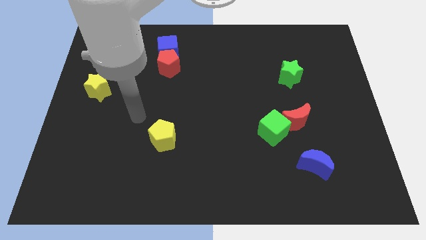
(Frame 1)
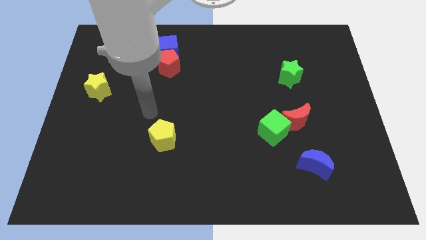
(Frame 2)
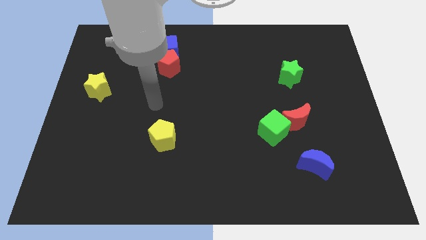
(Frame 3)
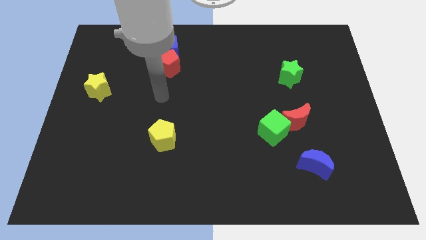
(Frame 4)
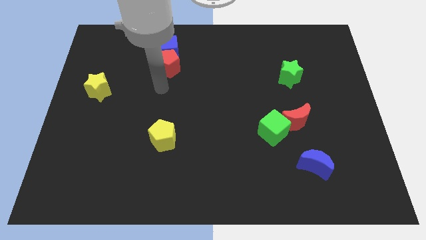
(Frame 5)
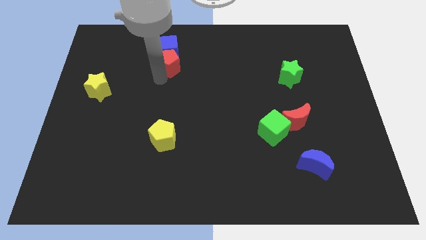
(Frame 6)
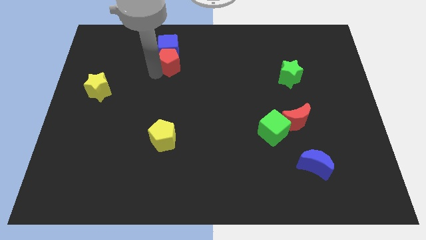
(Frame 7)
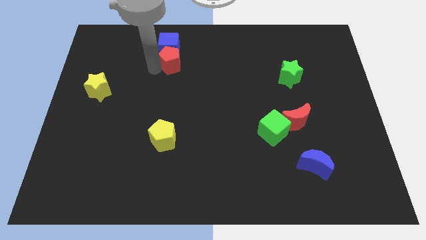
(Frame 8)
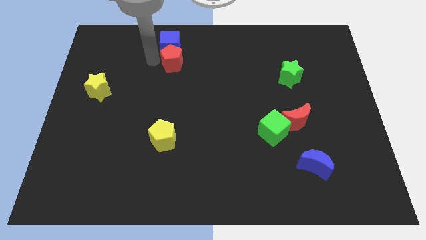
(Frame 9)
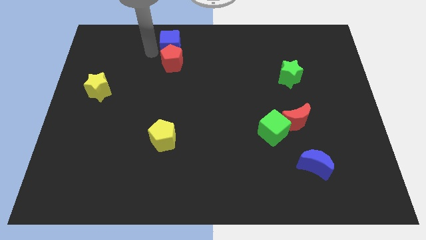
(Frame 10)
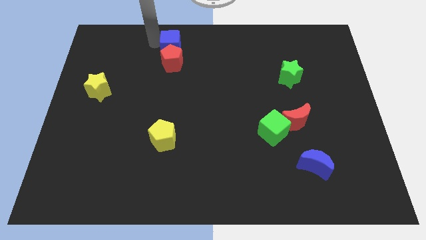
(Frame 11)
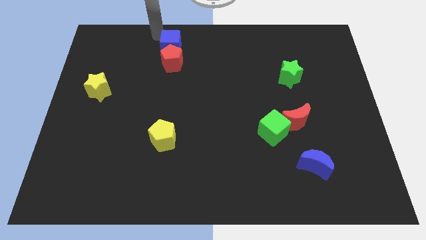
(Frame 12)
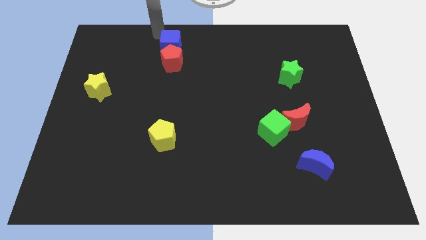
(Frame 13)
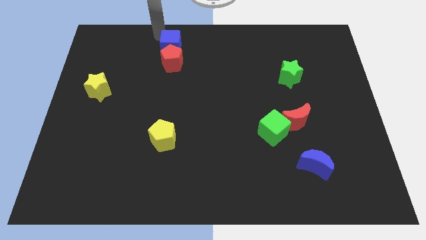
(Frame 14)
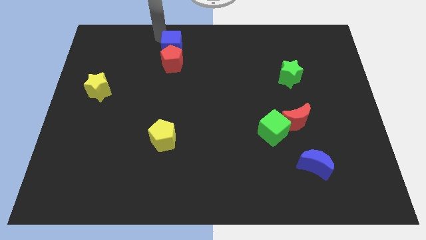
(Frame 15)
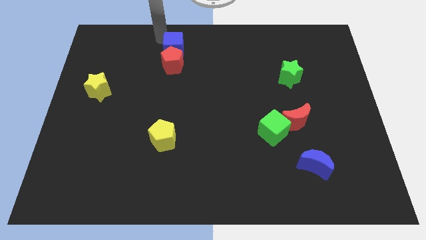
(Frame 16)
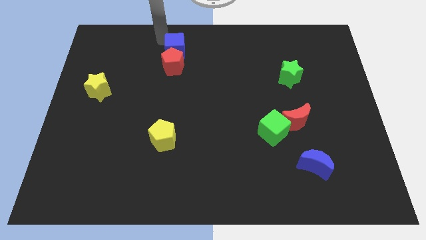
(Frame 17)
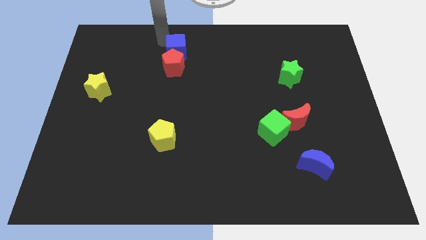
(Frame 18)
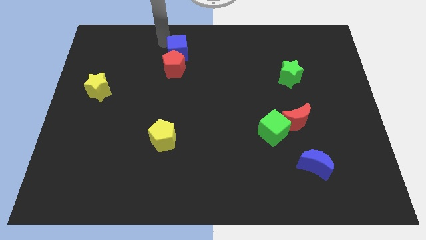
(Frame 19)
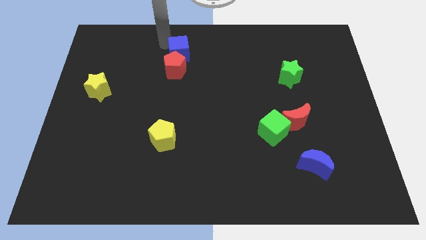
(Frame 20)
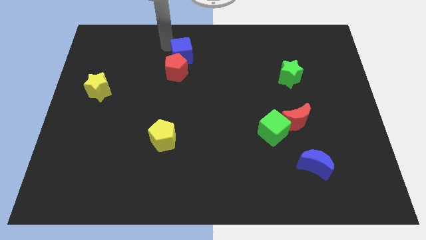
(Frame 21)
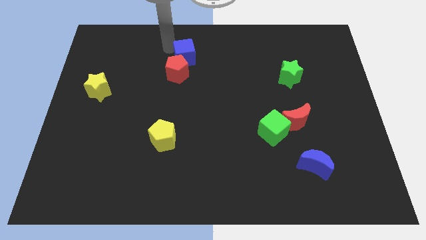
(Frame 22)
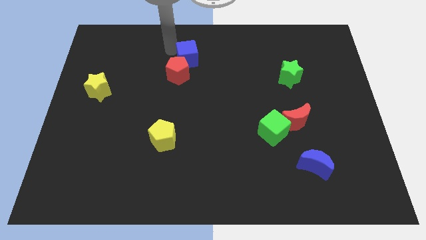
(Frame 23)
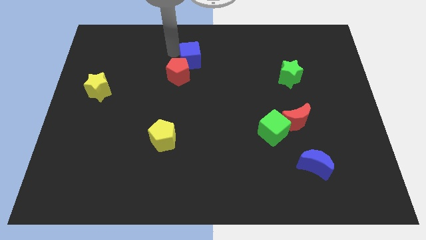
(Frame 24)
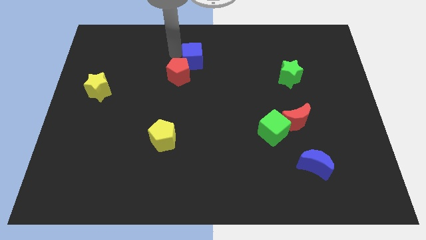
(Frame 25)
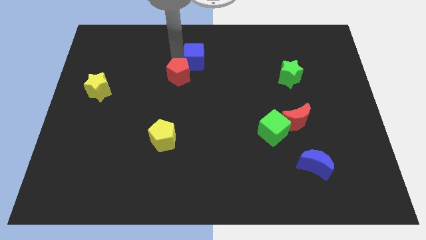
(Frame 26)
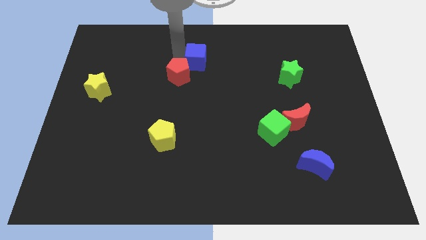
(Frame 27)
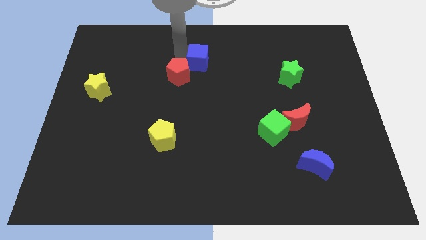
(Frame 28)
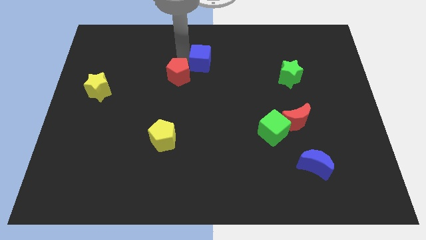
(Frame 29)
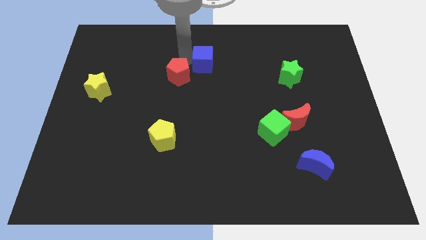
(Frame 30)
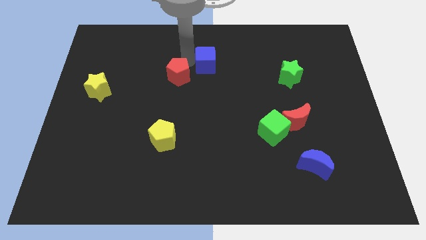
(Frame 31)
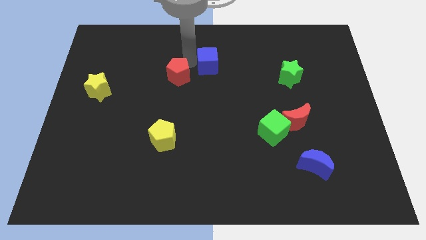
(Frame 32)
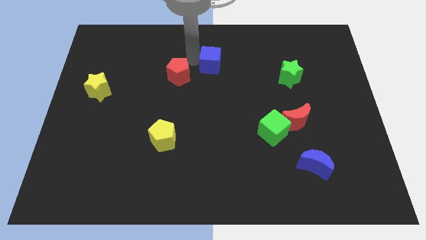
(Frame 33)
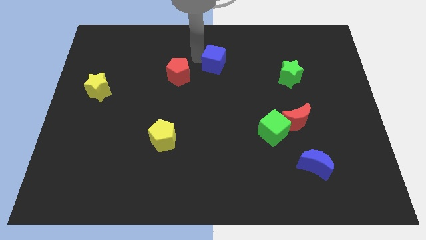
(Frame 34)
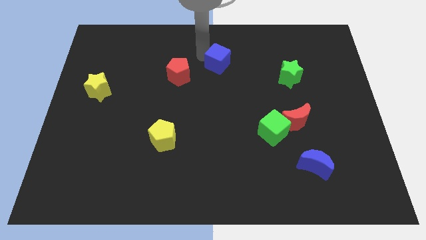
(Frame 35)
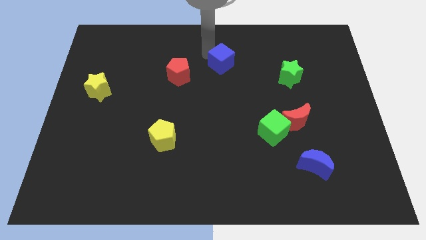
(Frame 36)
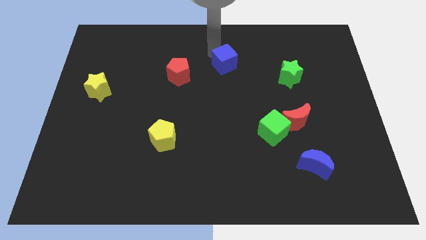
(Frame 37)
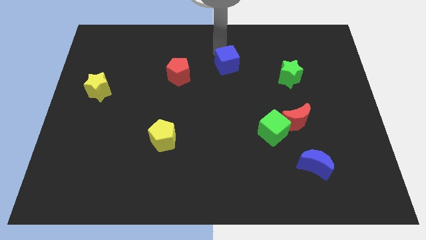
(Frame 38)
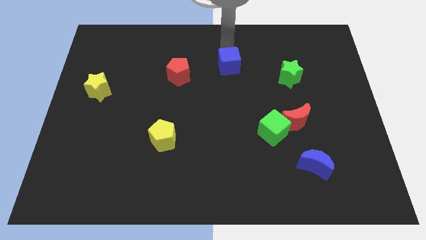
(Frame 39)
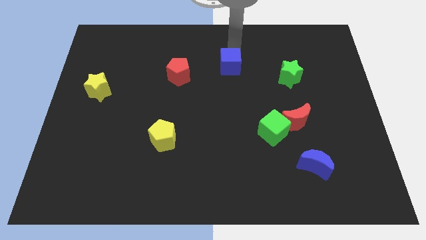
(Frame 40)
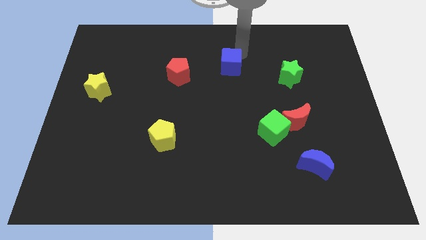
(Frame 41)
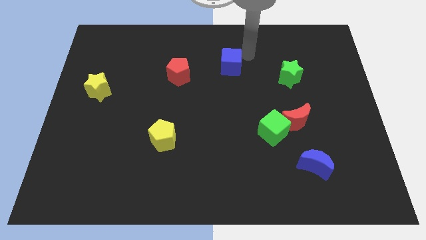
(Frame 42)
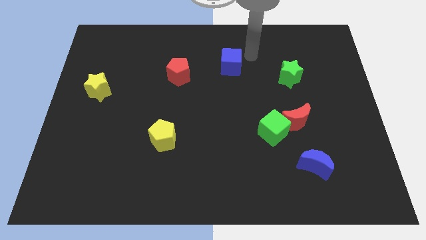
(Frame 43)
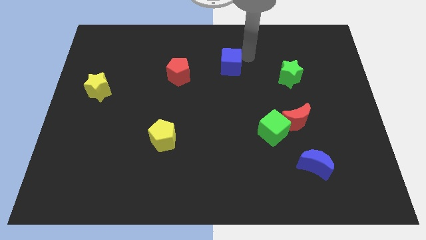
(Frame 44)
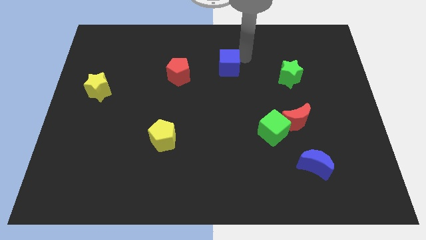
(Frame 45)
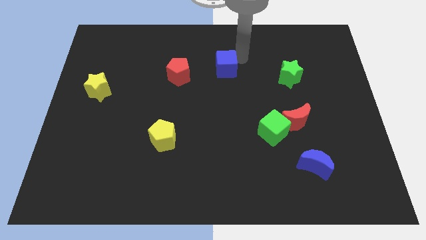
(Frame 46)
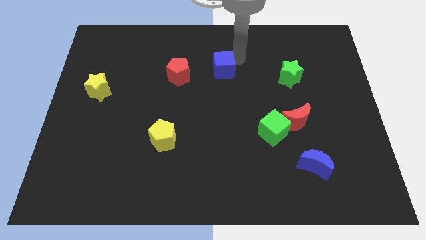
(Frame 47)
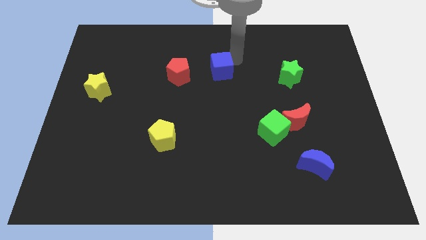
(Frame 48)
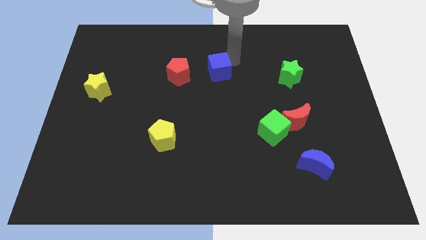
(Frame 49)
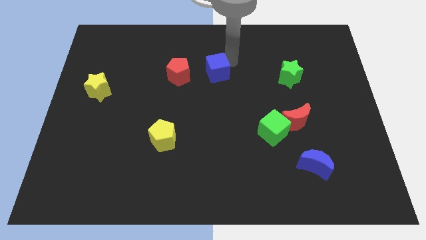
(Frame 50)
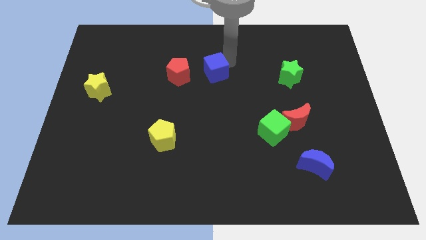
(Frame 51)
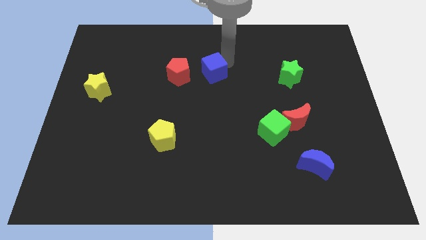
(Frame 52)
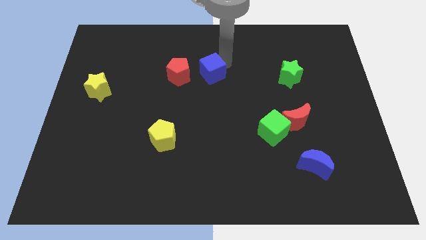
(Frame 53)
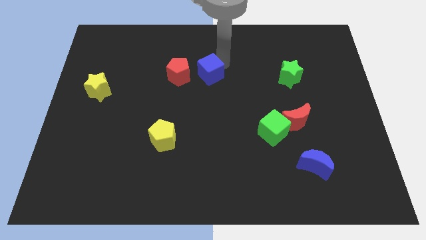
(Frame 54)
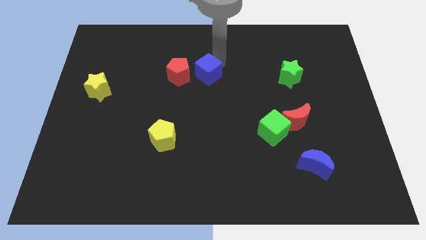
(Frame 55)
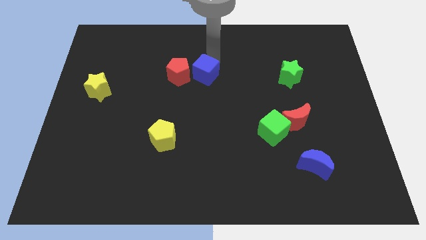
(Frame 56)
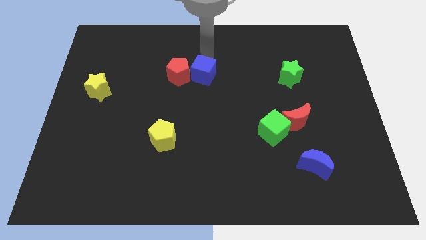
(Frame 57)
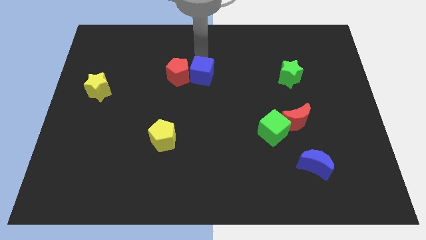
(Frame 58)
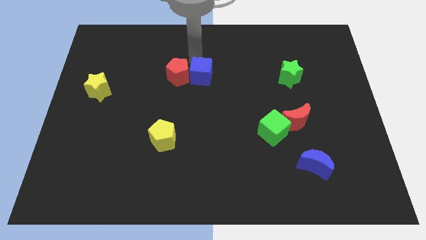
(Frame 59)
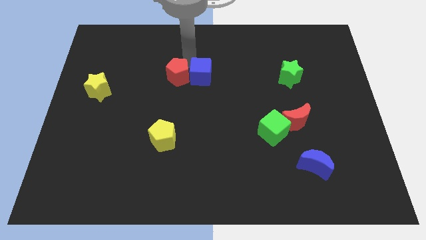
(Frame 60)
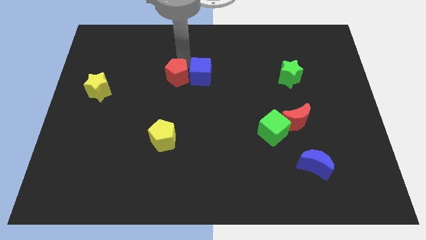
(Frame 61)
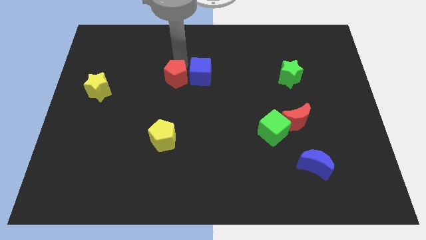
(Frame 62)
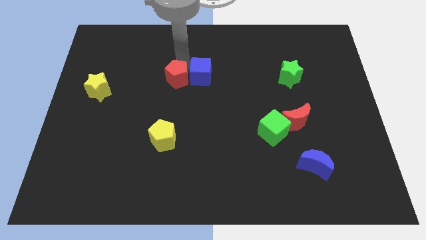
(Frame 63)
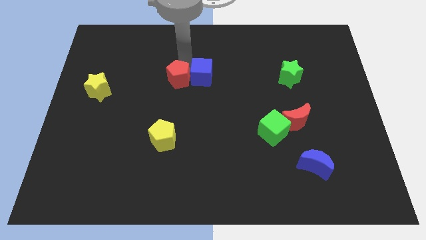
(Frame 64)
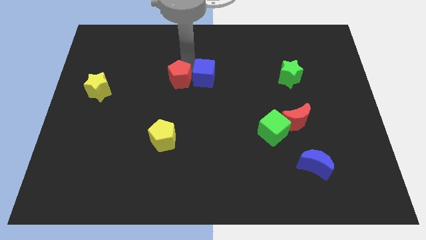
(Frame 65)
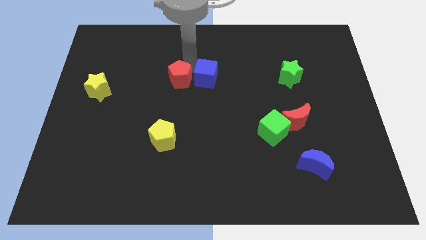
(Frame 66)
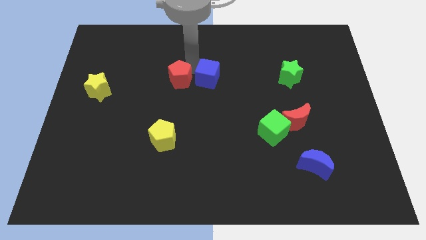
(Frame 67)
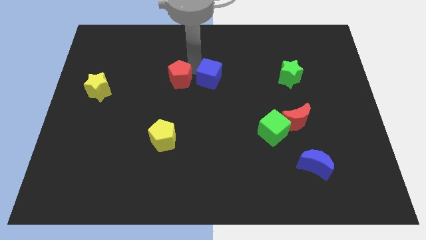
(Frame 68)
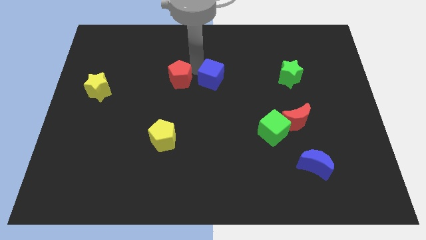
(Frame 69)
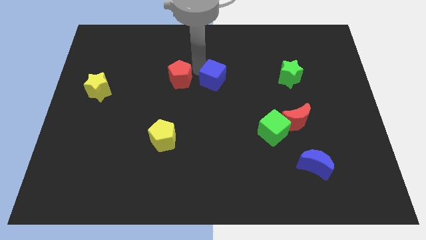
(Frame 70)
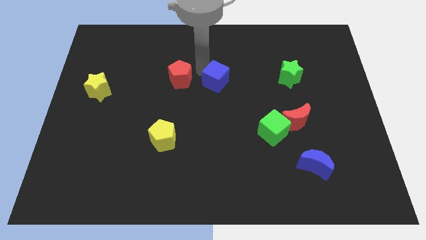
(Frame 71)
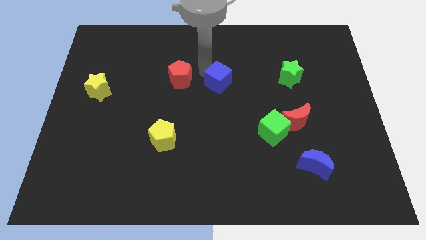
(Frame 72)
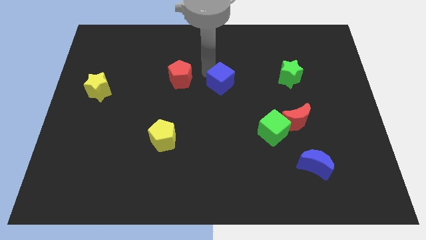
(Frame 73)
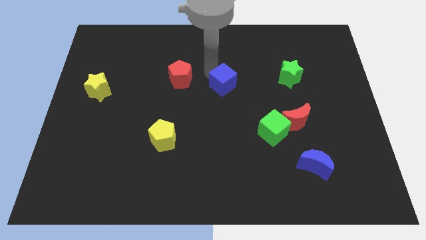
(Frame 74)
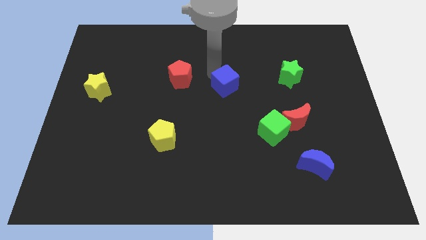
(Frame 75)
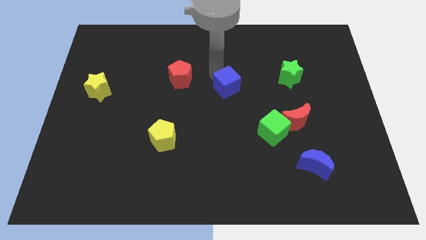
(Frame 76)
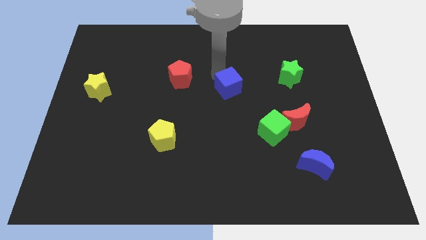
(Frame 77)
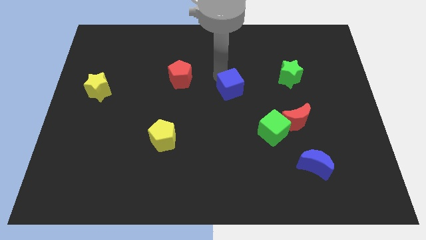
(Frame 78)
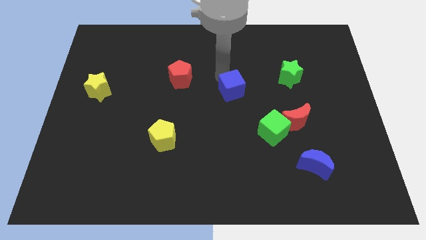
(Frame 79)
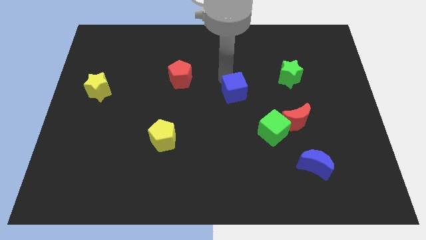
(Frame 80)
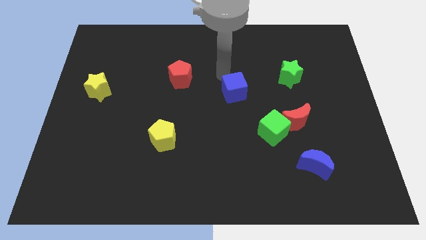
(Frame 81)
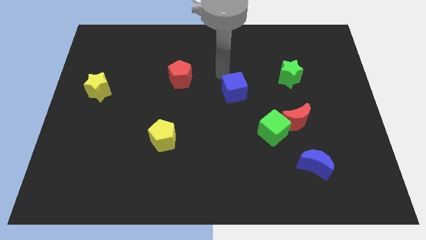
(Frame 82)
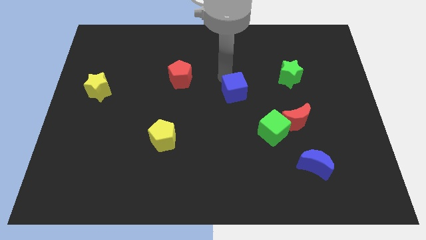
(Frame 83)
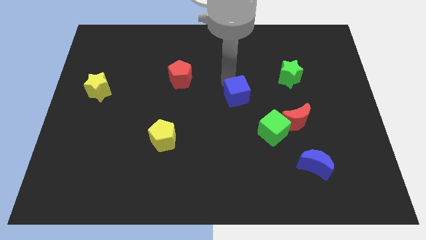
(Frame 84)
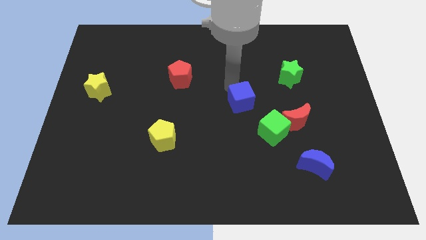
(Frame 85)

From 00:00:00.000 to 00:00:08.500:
move the blue cube to the top left side of the green cube
